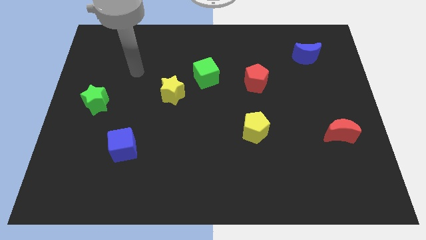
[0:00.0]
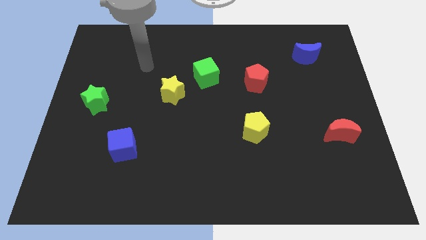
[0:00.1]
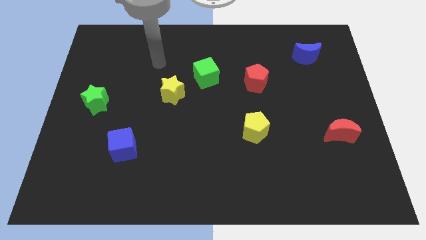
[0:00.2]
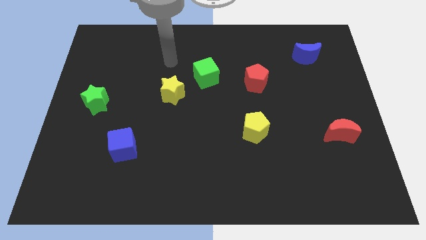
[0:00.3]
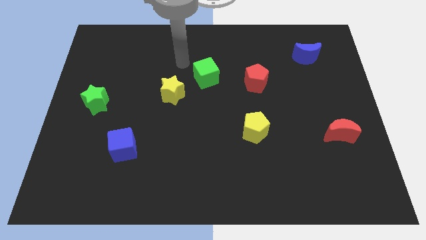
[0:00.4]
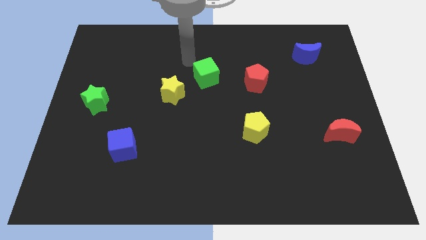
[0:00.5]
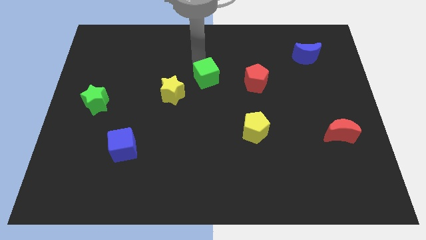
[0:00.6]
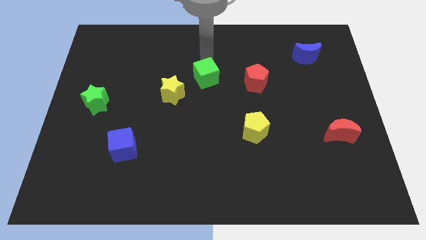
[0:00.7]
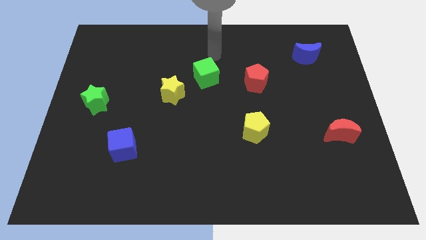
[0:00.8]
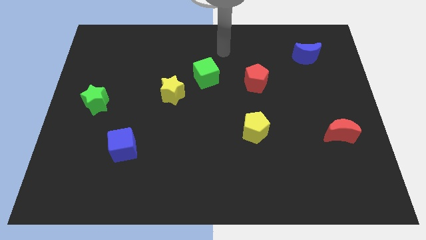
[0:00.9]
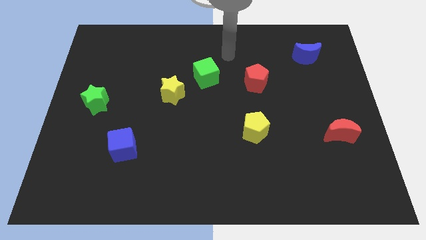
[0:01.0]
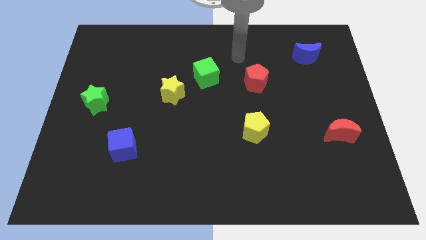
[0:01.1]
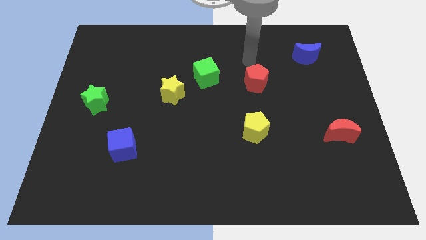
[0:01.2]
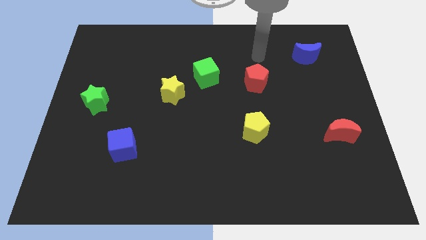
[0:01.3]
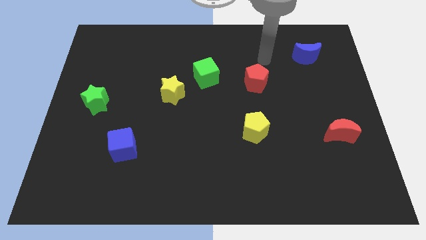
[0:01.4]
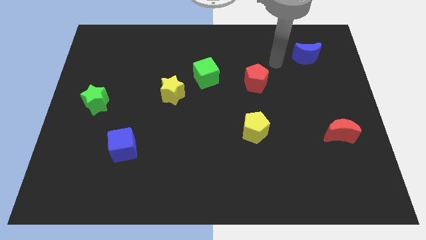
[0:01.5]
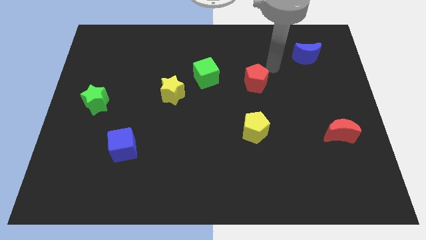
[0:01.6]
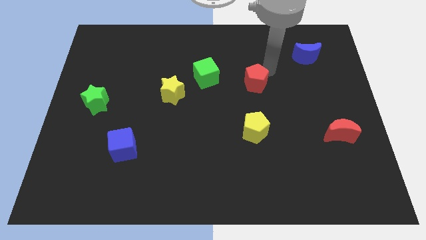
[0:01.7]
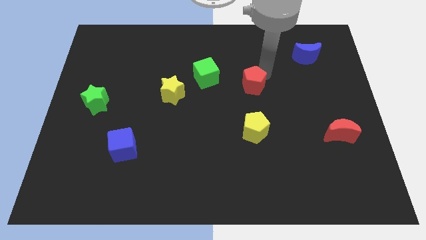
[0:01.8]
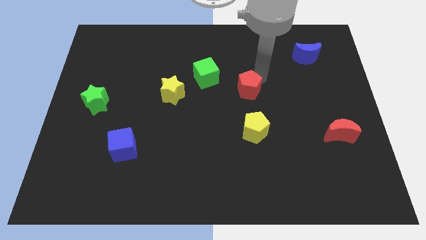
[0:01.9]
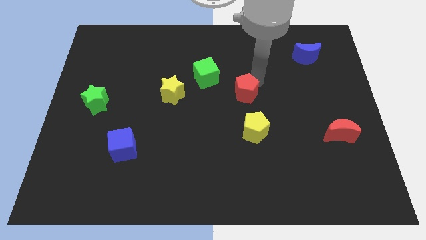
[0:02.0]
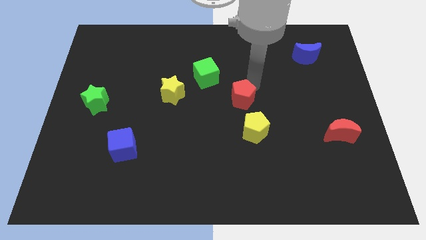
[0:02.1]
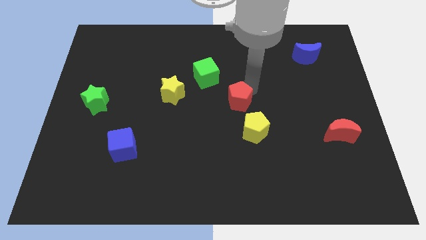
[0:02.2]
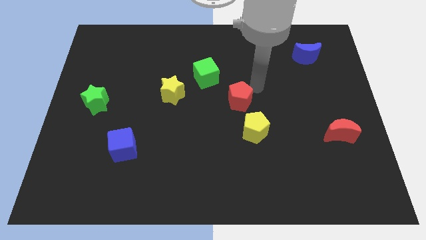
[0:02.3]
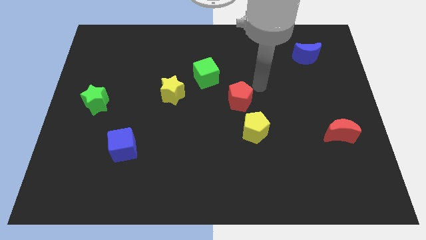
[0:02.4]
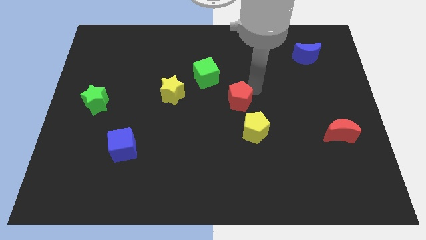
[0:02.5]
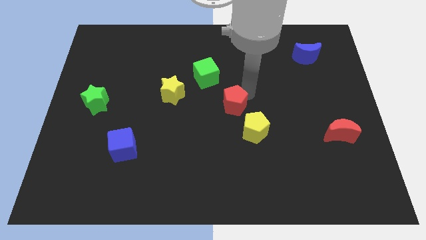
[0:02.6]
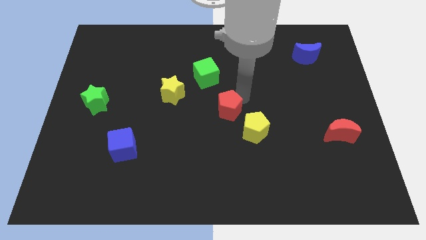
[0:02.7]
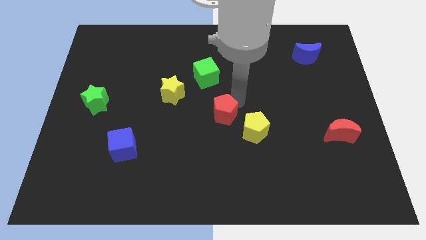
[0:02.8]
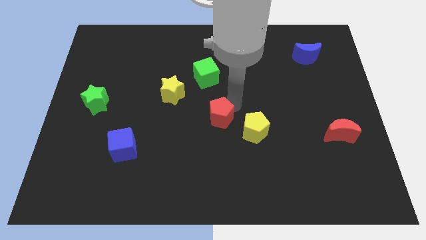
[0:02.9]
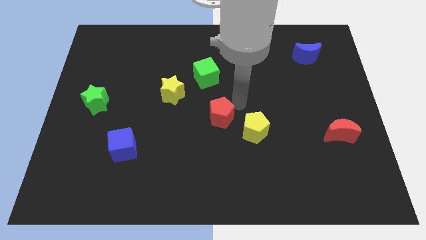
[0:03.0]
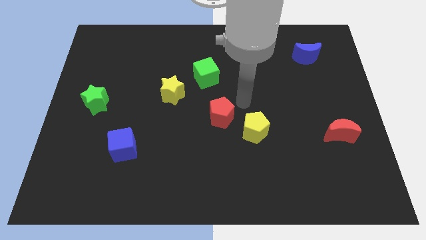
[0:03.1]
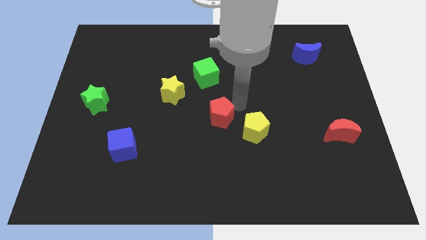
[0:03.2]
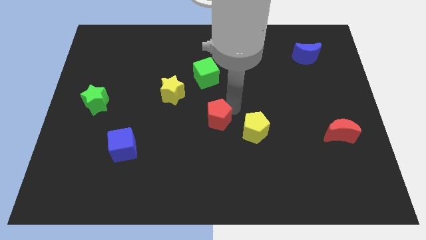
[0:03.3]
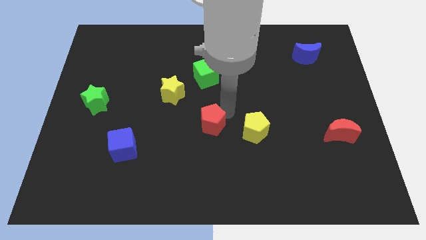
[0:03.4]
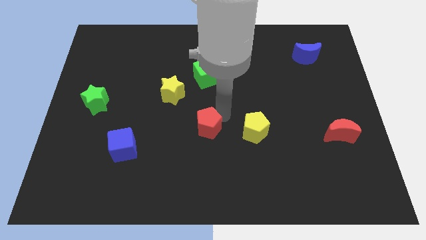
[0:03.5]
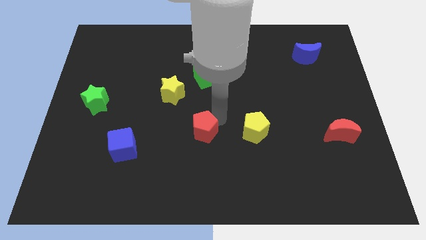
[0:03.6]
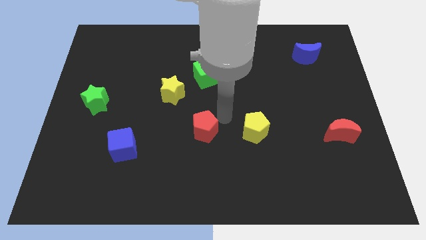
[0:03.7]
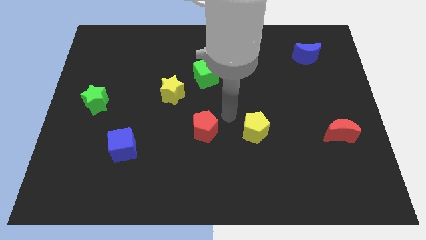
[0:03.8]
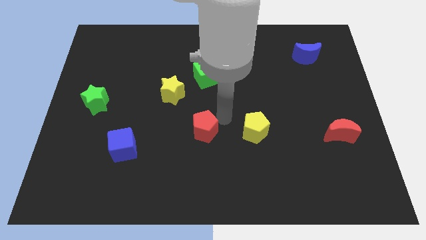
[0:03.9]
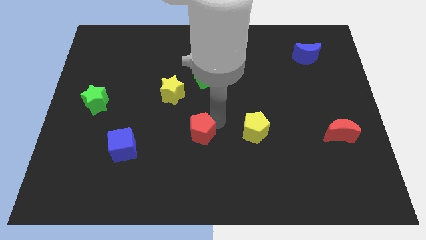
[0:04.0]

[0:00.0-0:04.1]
push the red pentagon down and to the left

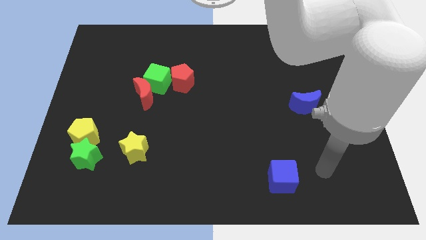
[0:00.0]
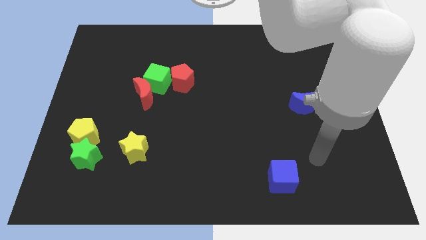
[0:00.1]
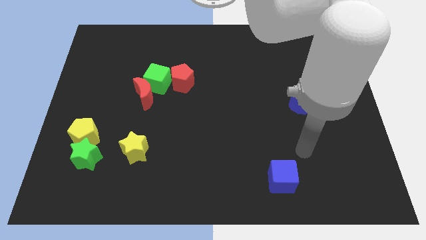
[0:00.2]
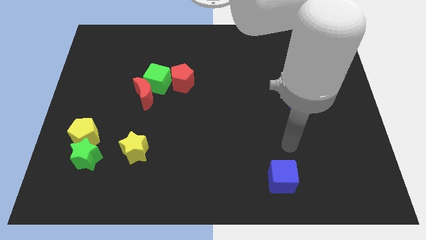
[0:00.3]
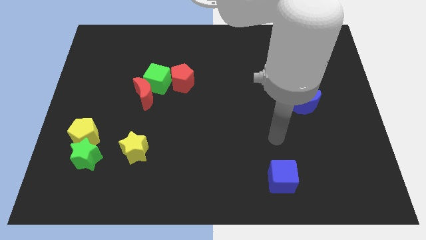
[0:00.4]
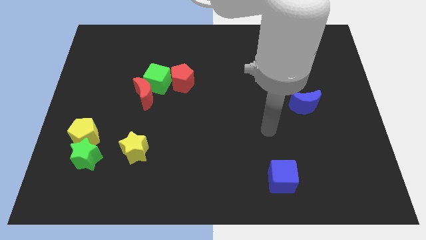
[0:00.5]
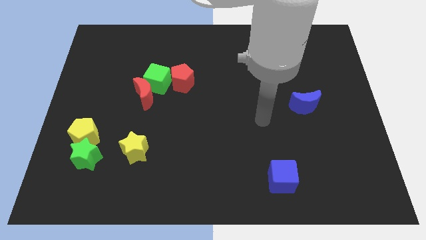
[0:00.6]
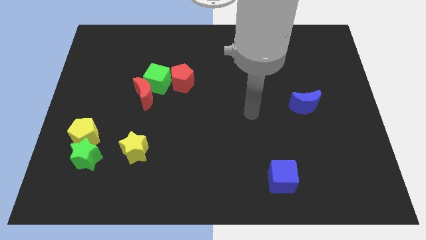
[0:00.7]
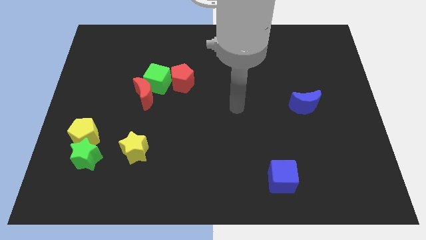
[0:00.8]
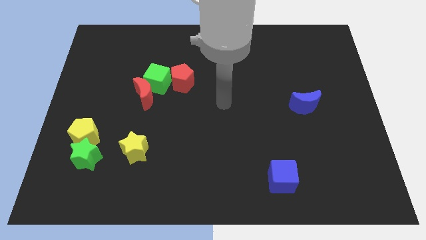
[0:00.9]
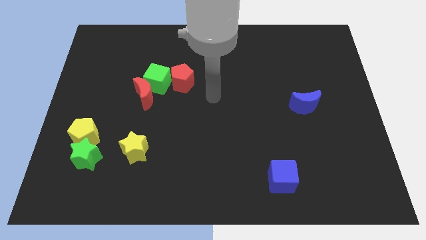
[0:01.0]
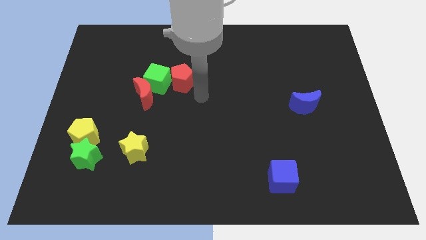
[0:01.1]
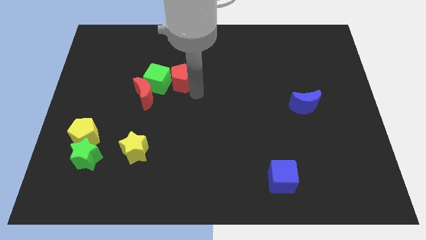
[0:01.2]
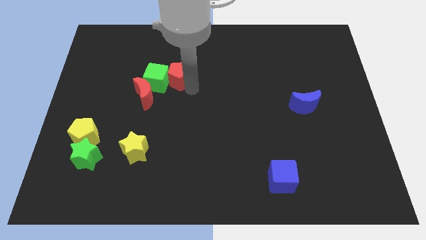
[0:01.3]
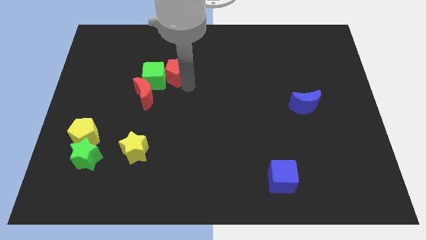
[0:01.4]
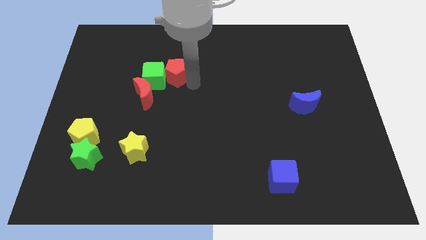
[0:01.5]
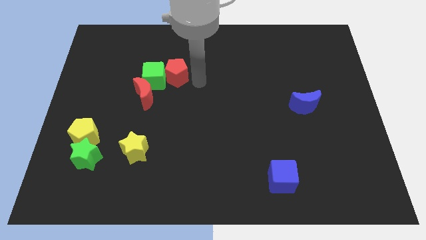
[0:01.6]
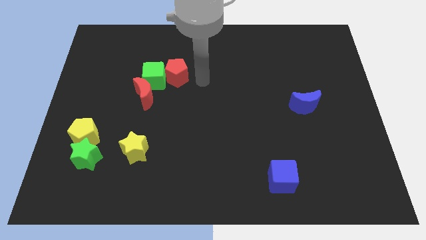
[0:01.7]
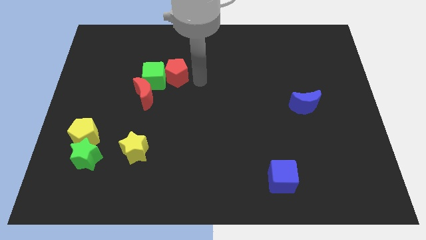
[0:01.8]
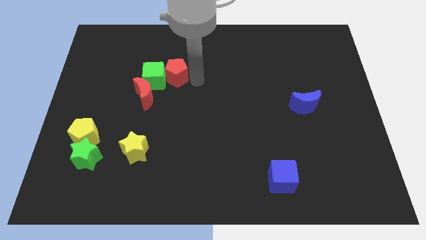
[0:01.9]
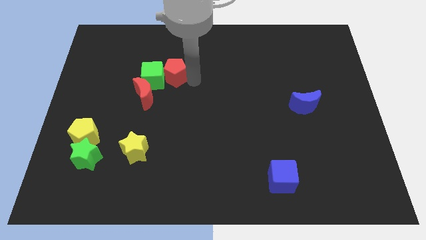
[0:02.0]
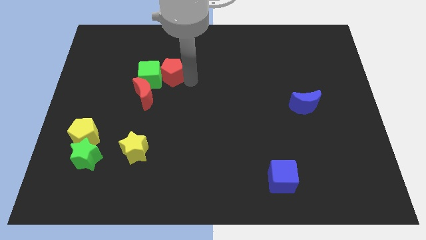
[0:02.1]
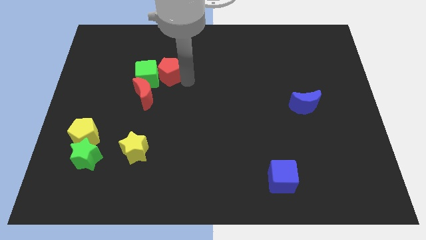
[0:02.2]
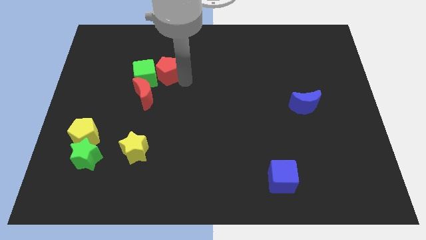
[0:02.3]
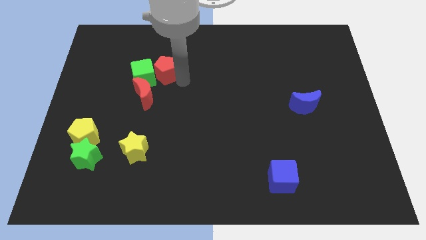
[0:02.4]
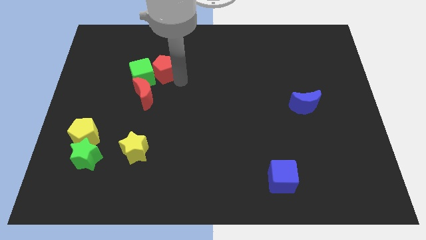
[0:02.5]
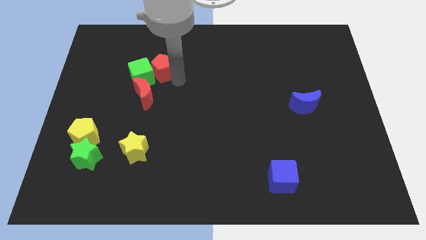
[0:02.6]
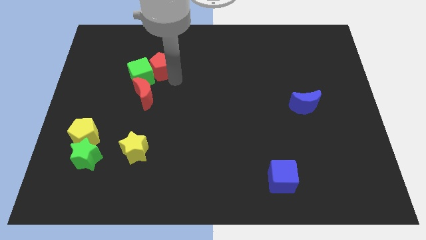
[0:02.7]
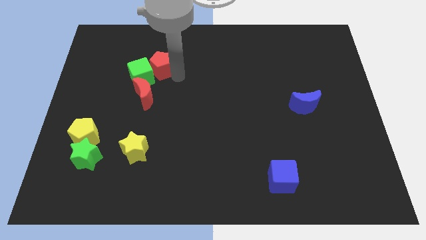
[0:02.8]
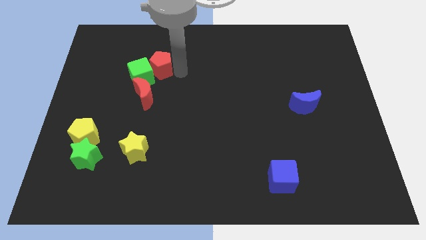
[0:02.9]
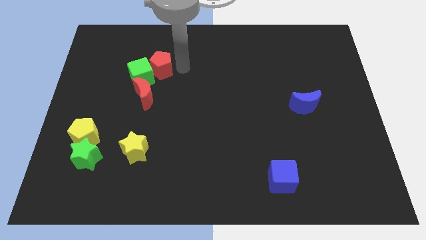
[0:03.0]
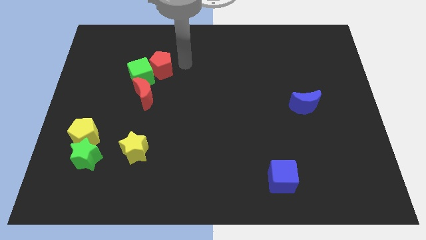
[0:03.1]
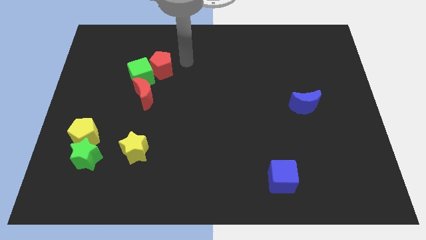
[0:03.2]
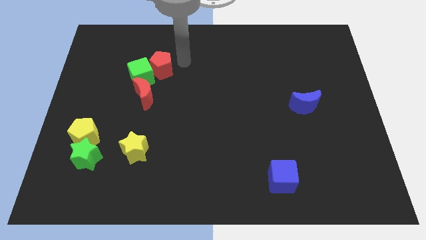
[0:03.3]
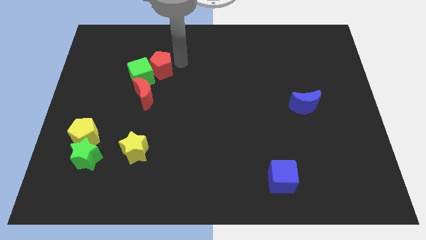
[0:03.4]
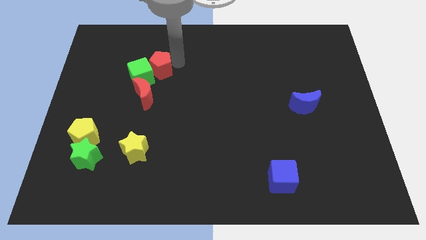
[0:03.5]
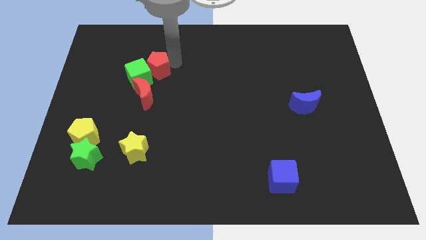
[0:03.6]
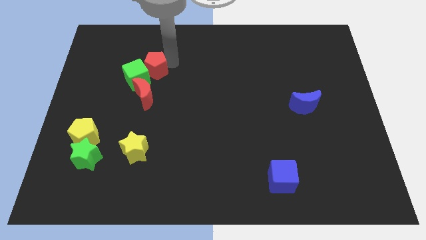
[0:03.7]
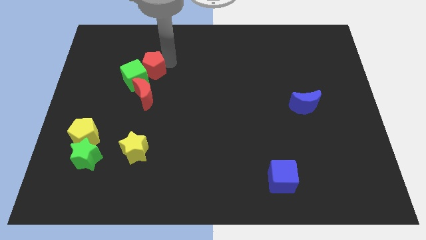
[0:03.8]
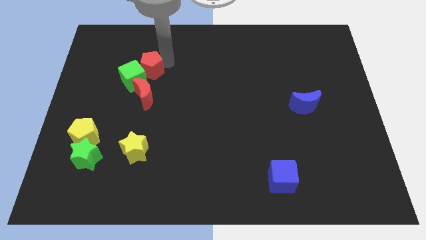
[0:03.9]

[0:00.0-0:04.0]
slightly move the red pentagon to the left

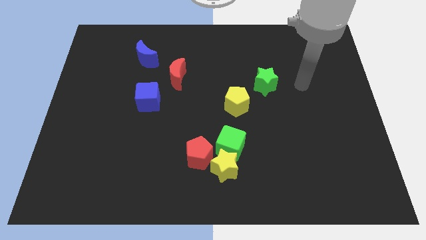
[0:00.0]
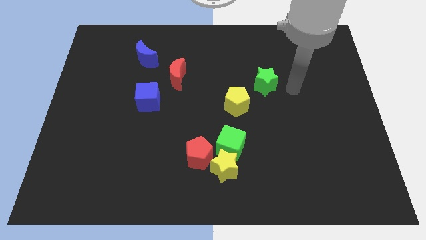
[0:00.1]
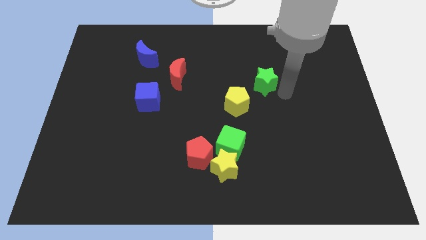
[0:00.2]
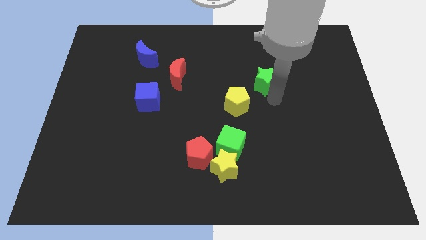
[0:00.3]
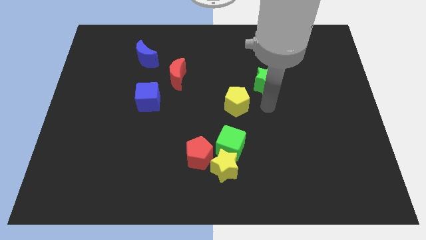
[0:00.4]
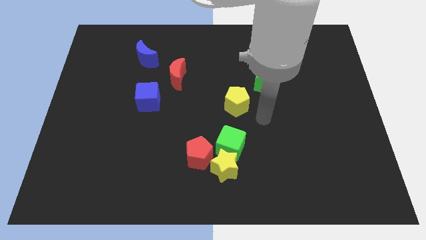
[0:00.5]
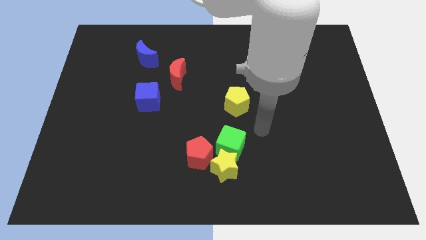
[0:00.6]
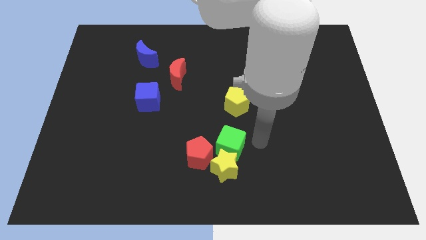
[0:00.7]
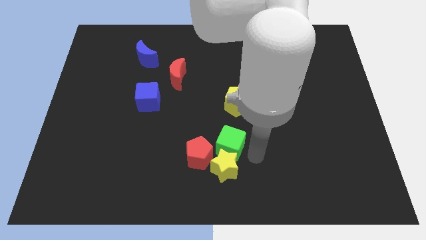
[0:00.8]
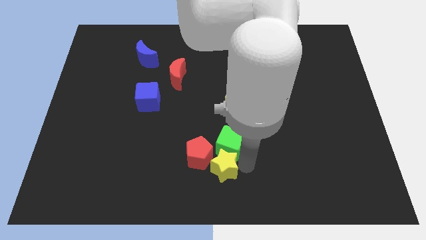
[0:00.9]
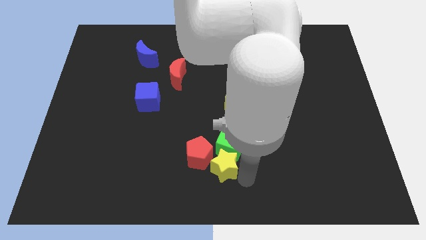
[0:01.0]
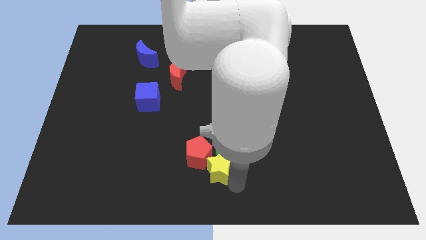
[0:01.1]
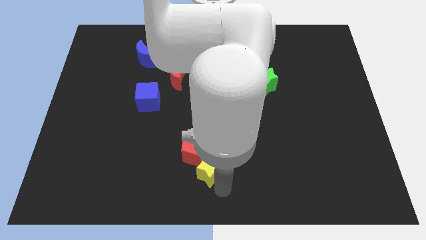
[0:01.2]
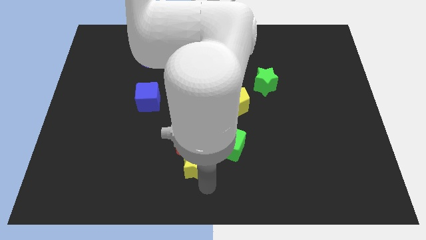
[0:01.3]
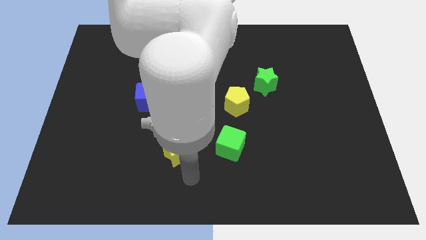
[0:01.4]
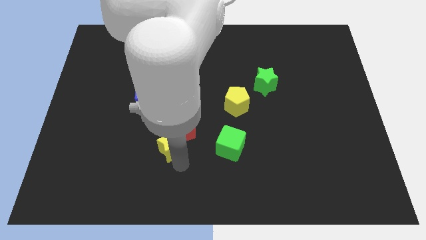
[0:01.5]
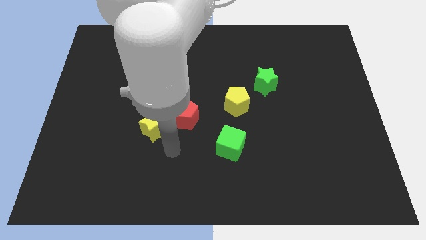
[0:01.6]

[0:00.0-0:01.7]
move the red pentagon a little bit up
